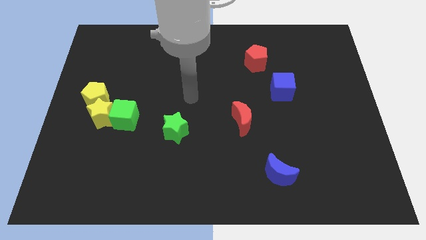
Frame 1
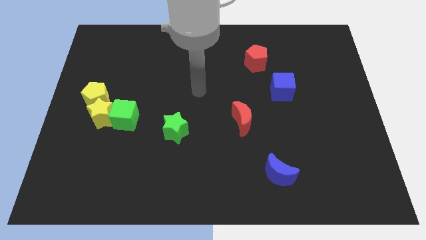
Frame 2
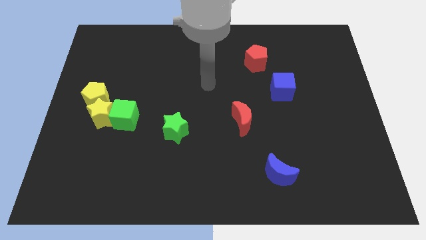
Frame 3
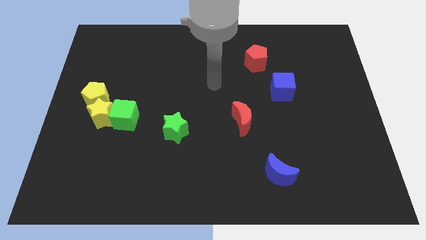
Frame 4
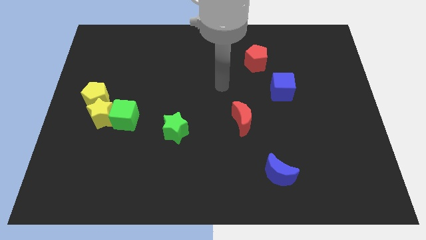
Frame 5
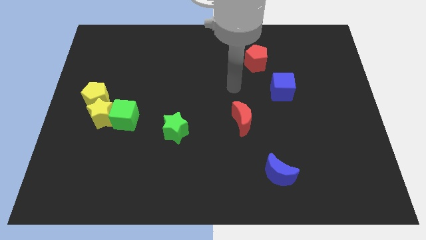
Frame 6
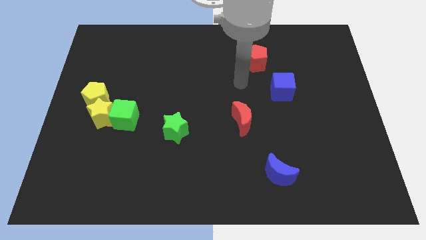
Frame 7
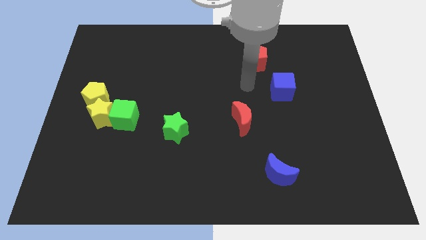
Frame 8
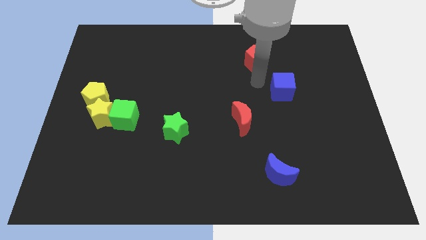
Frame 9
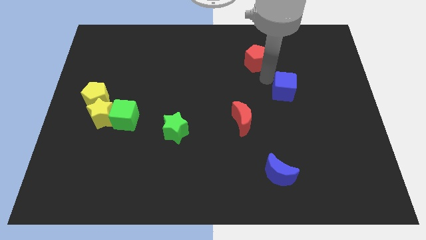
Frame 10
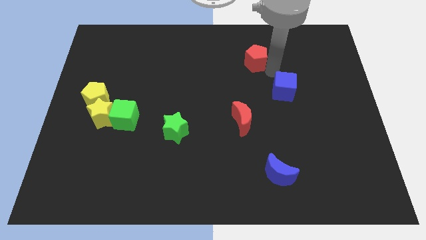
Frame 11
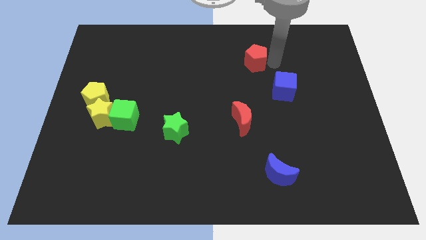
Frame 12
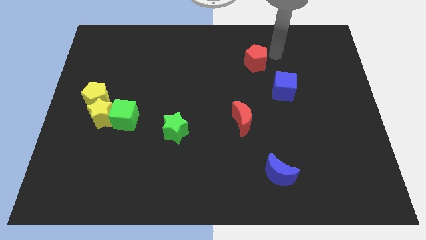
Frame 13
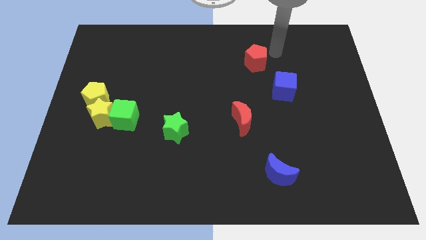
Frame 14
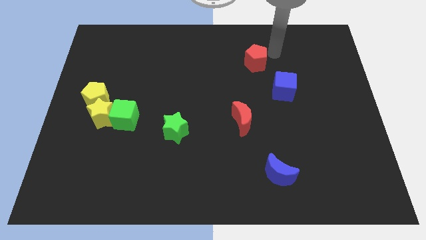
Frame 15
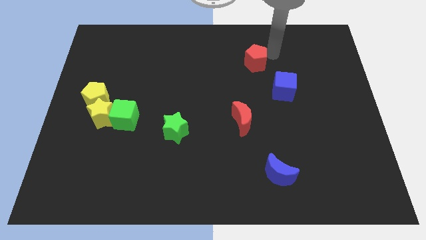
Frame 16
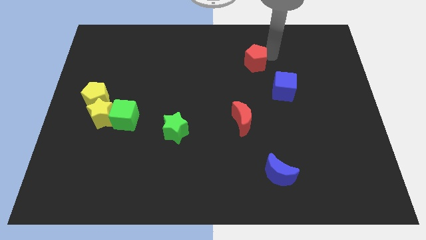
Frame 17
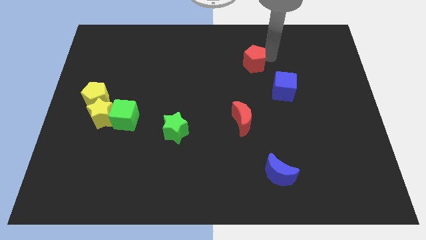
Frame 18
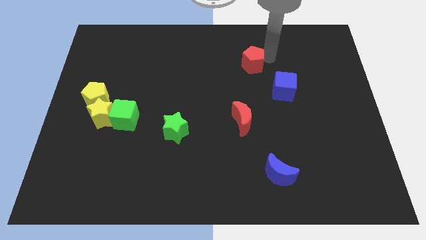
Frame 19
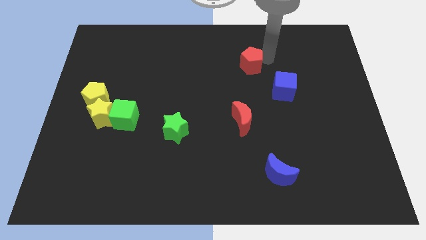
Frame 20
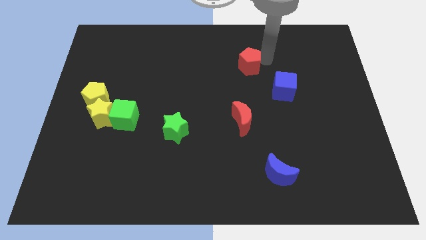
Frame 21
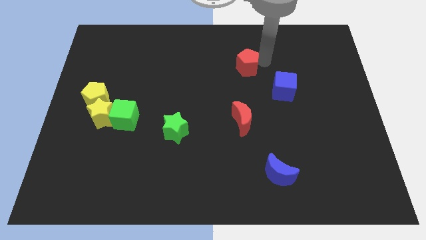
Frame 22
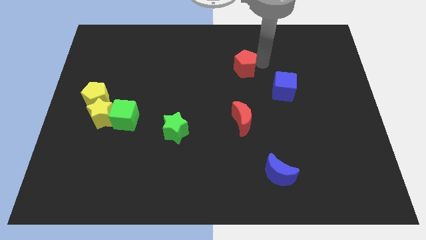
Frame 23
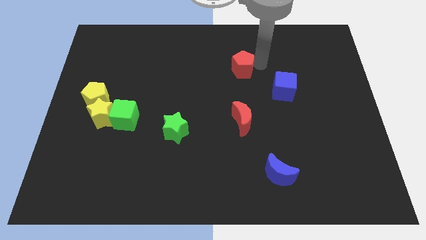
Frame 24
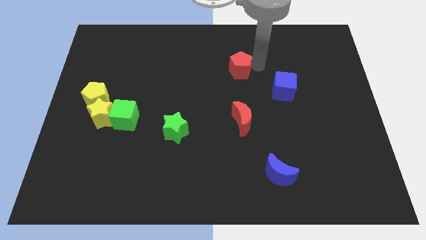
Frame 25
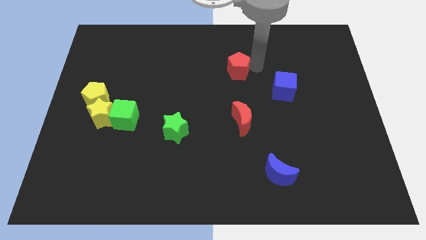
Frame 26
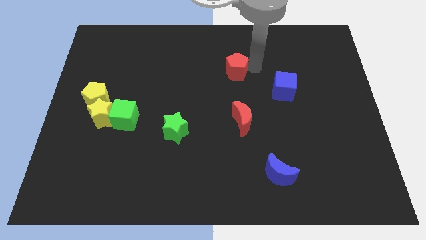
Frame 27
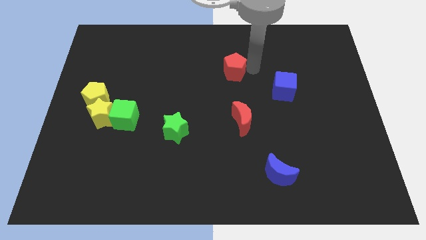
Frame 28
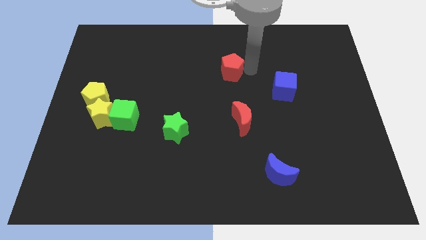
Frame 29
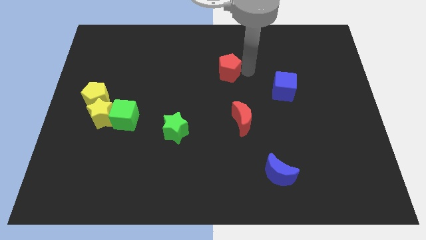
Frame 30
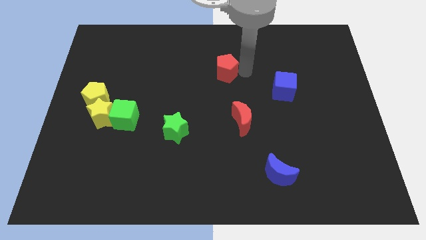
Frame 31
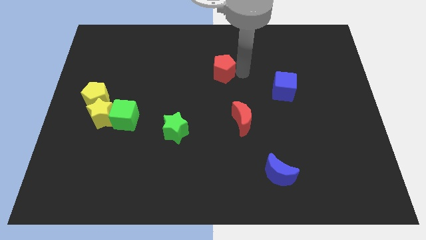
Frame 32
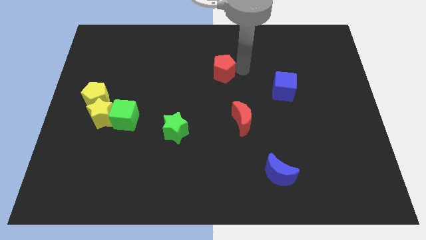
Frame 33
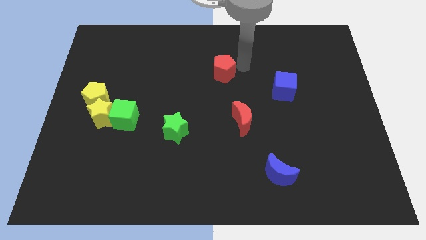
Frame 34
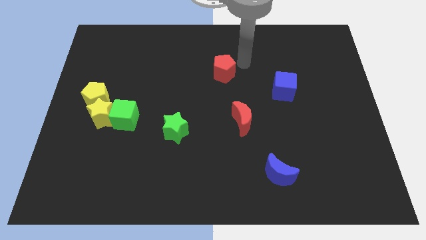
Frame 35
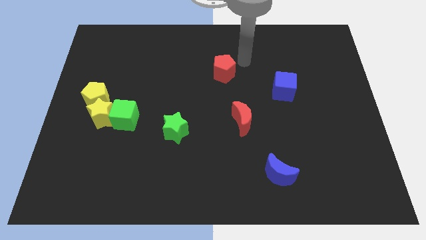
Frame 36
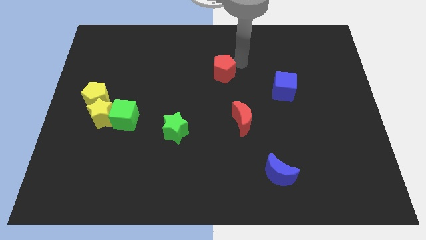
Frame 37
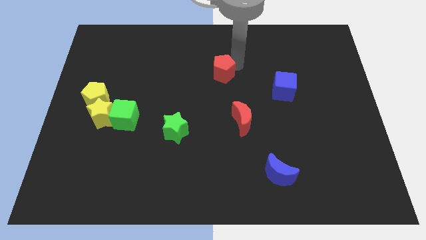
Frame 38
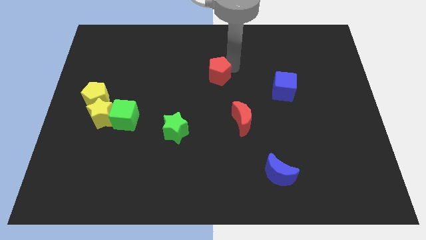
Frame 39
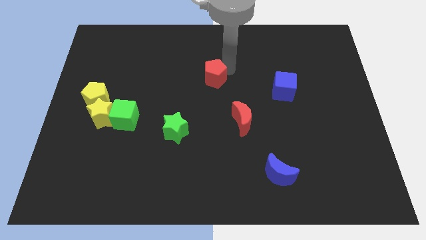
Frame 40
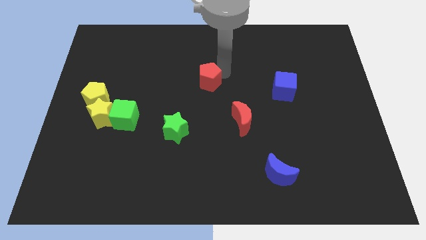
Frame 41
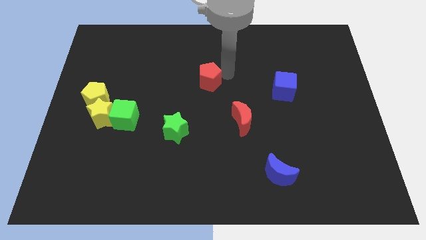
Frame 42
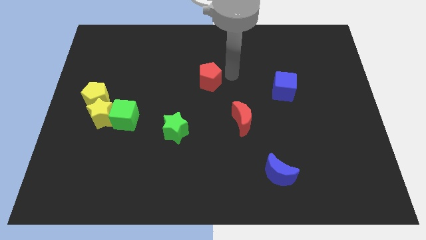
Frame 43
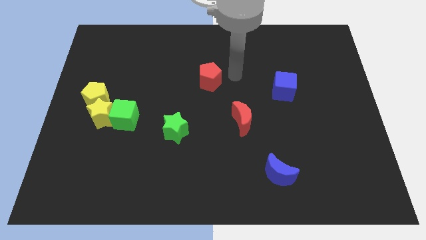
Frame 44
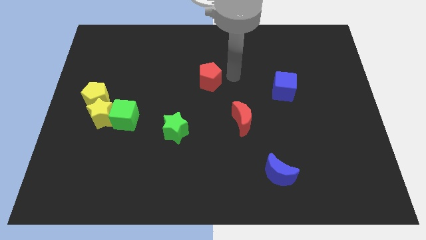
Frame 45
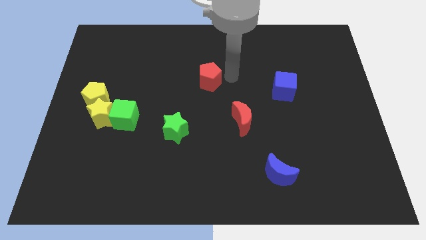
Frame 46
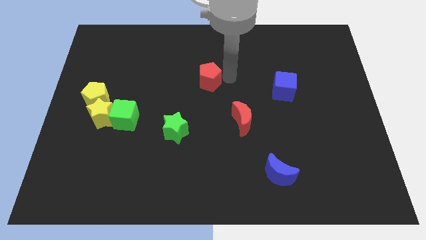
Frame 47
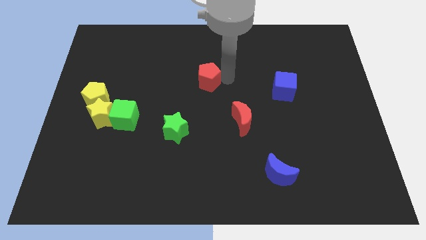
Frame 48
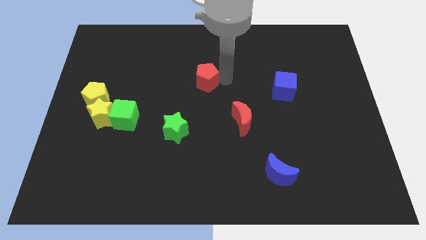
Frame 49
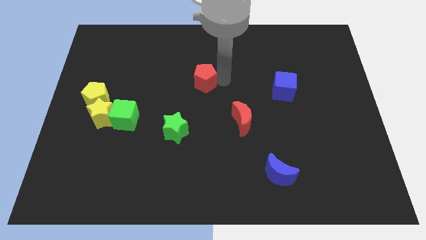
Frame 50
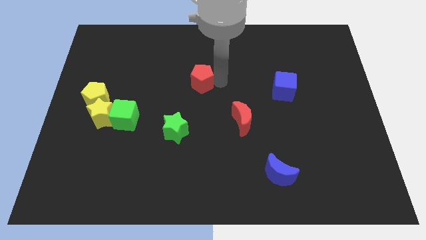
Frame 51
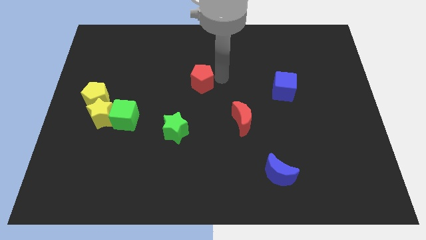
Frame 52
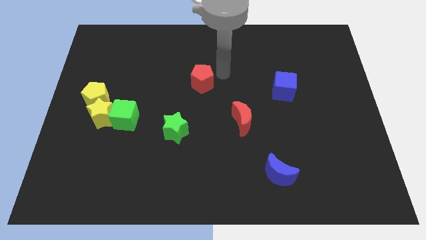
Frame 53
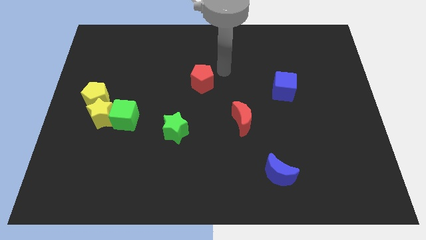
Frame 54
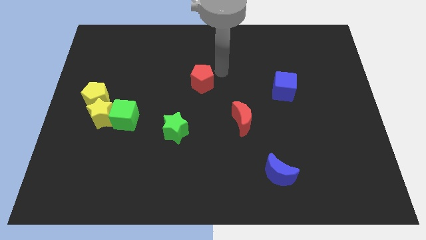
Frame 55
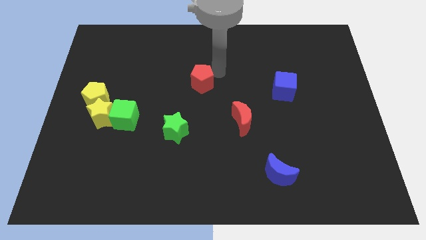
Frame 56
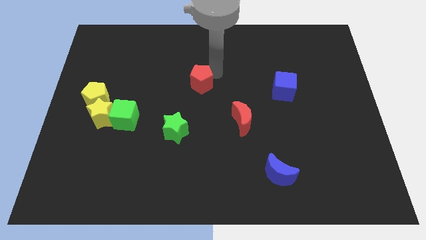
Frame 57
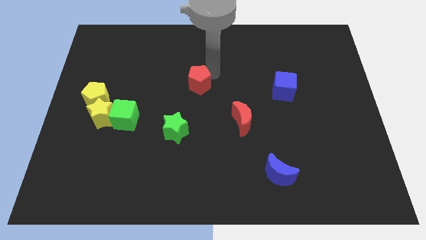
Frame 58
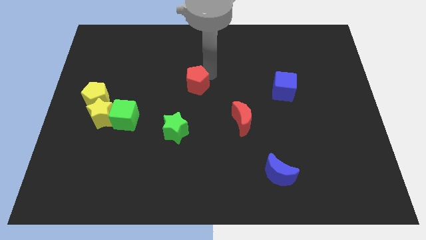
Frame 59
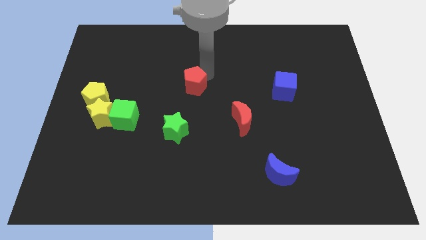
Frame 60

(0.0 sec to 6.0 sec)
slide the red pentagon to the top of the green star
